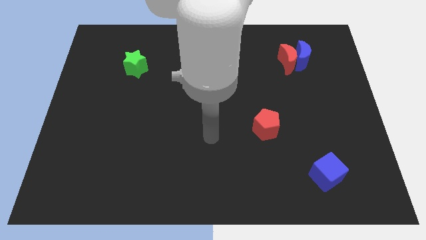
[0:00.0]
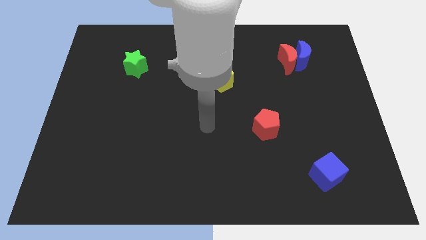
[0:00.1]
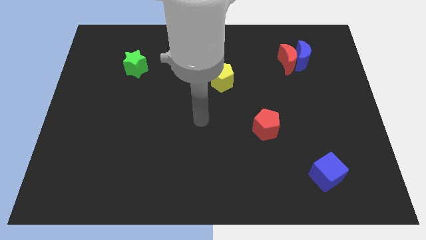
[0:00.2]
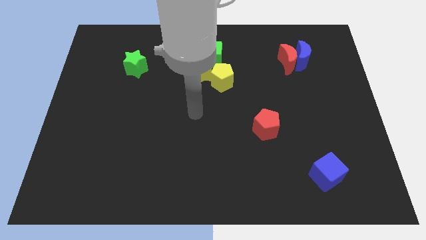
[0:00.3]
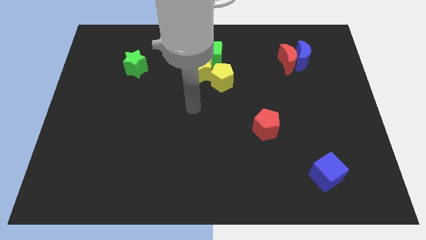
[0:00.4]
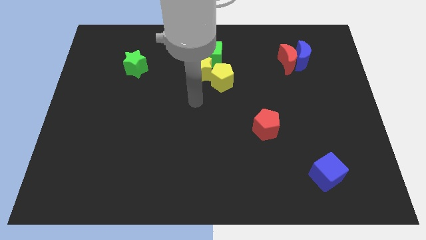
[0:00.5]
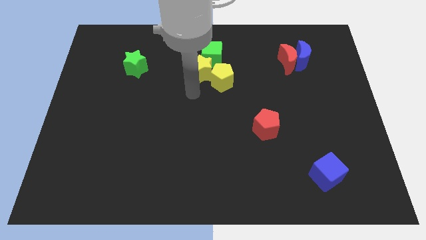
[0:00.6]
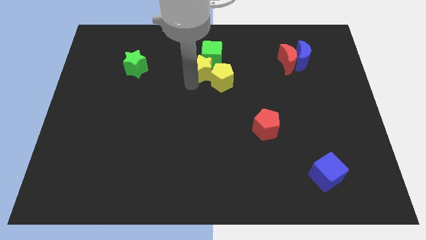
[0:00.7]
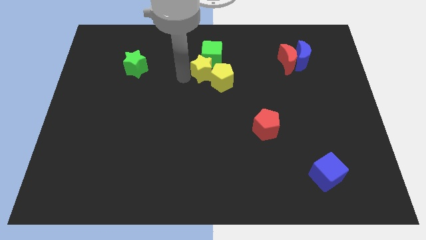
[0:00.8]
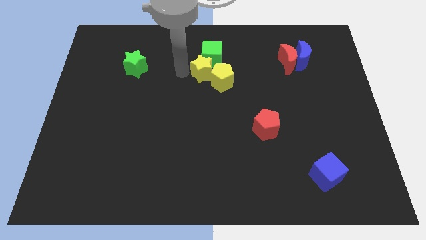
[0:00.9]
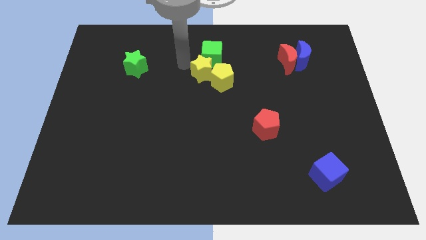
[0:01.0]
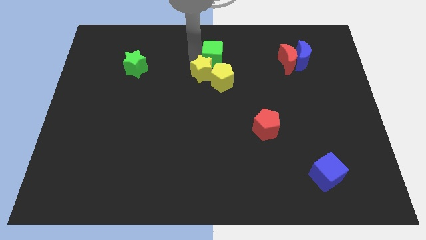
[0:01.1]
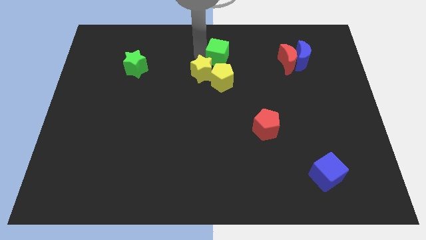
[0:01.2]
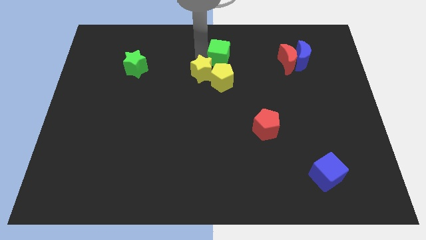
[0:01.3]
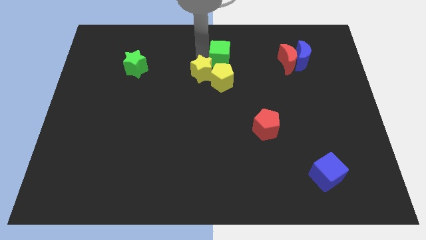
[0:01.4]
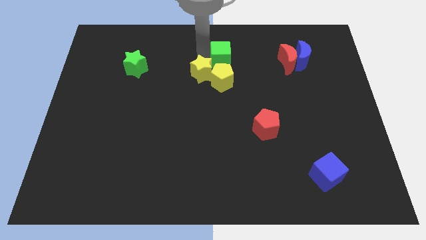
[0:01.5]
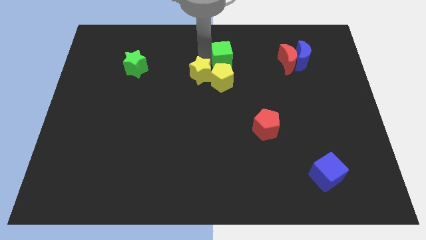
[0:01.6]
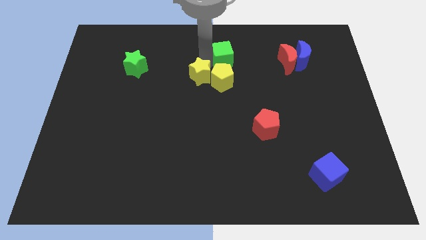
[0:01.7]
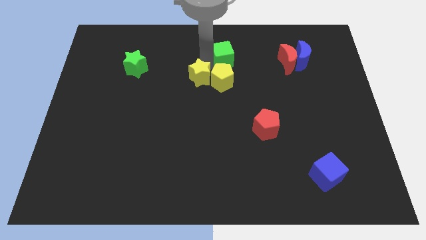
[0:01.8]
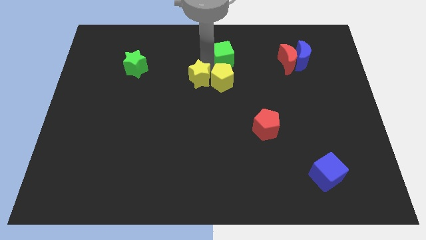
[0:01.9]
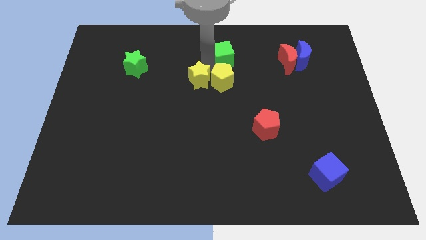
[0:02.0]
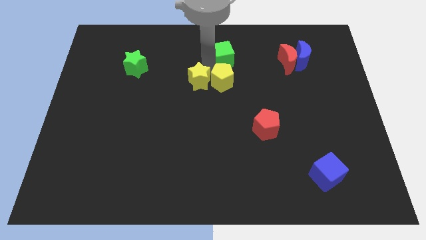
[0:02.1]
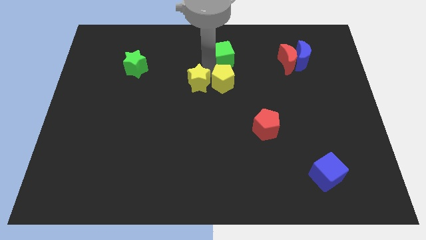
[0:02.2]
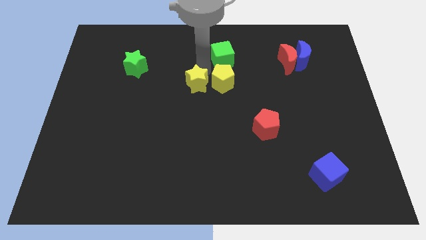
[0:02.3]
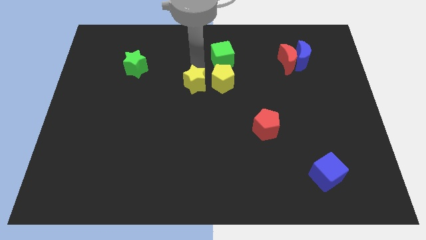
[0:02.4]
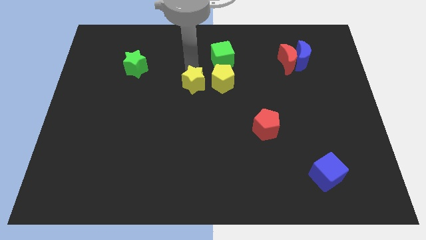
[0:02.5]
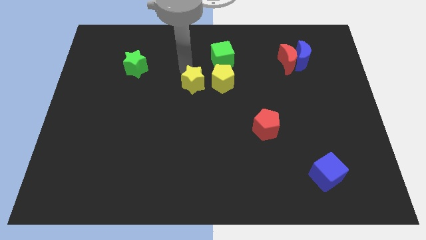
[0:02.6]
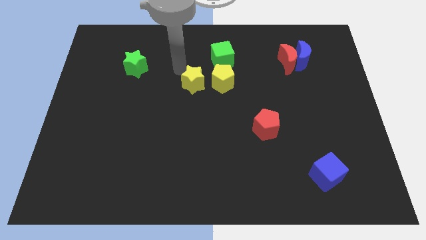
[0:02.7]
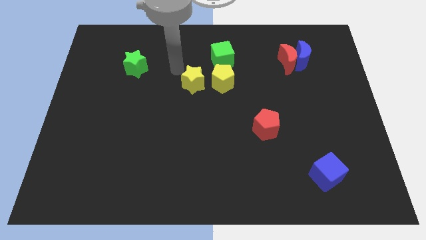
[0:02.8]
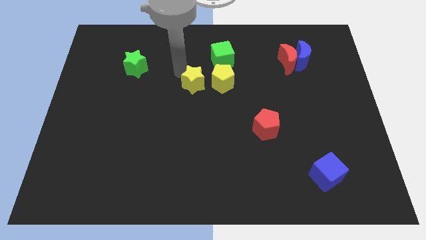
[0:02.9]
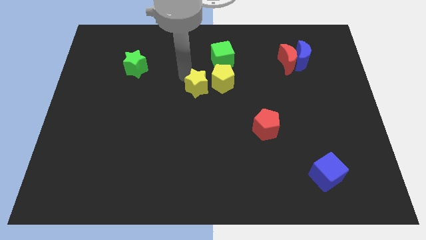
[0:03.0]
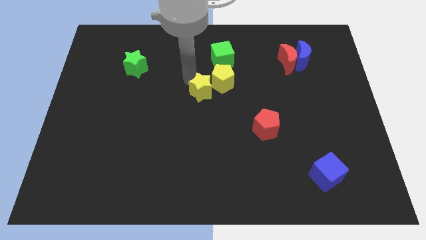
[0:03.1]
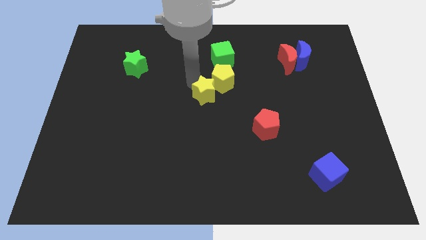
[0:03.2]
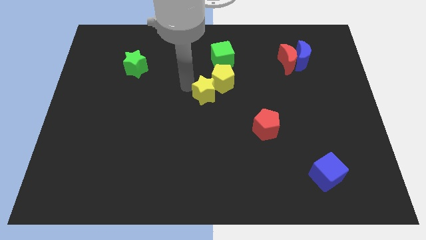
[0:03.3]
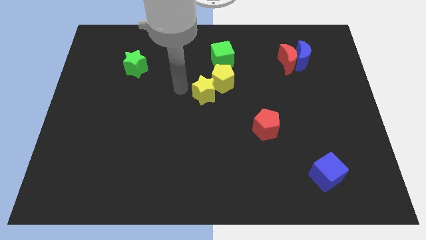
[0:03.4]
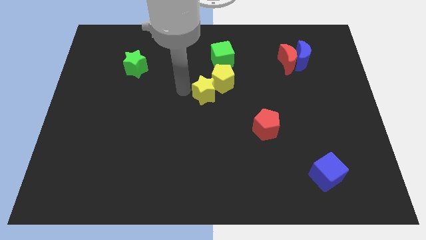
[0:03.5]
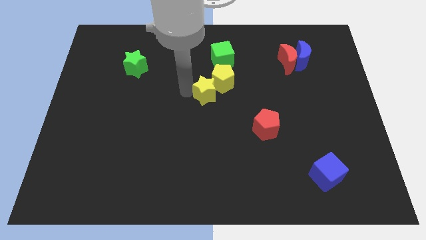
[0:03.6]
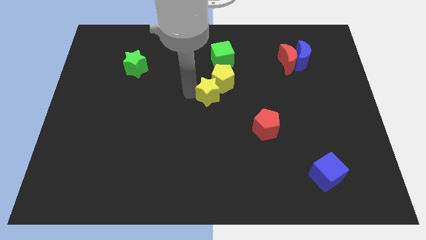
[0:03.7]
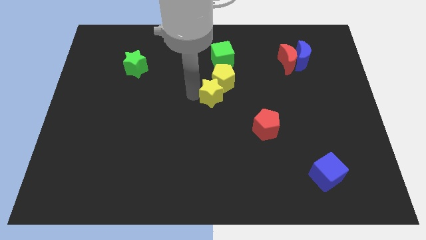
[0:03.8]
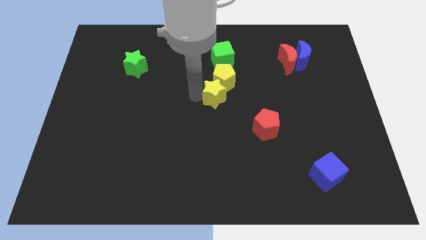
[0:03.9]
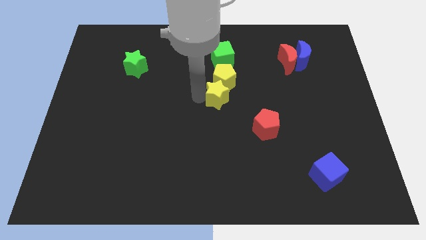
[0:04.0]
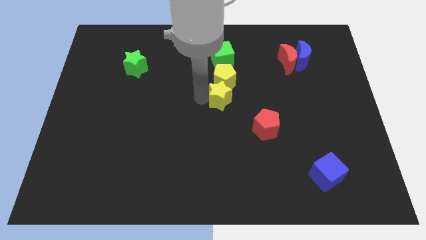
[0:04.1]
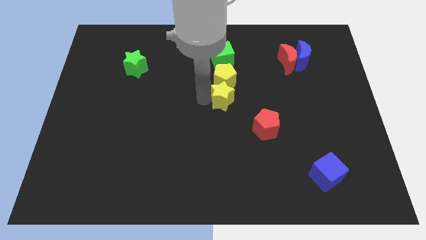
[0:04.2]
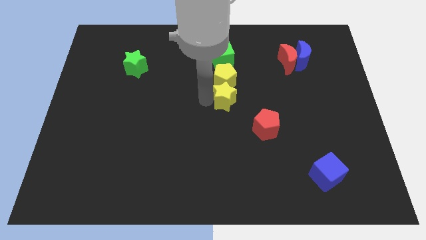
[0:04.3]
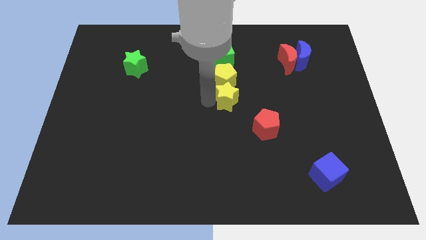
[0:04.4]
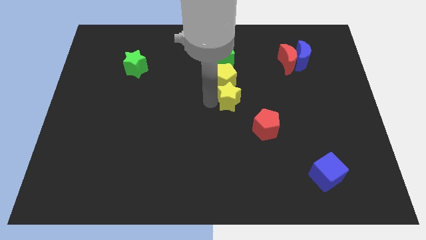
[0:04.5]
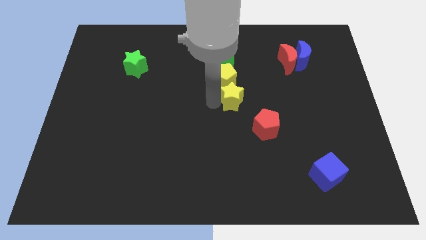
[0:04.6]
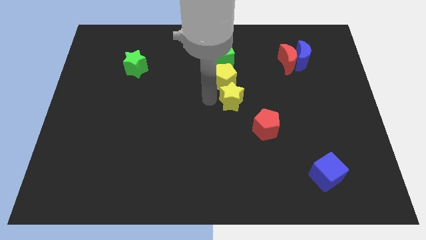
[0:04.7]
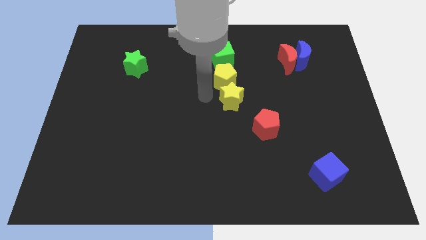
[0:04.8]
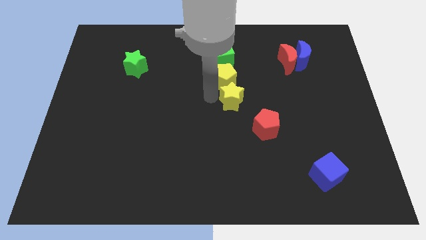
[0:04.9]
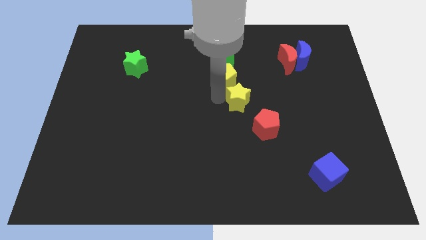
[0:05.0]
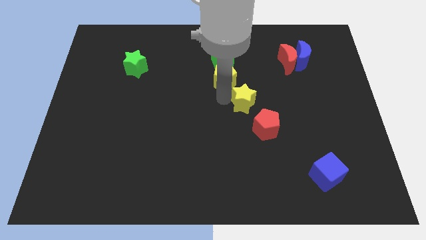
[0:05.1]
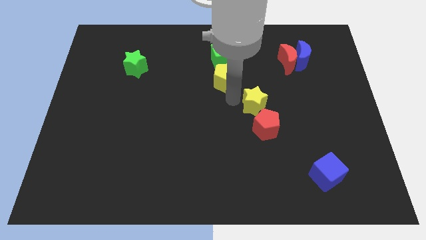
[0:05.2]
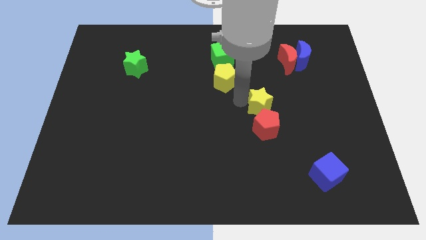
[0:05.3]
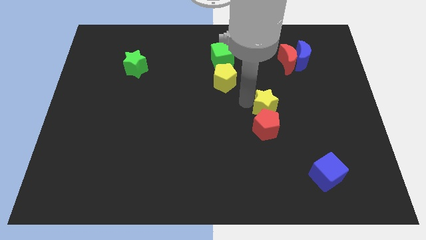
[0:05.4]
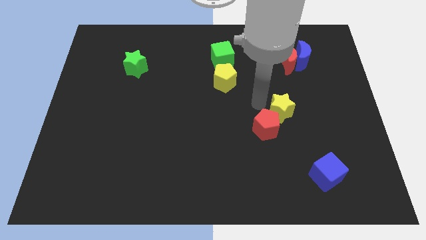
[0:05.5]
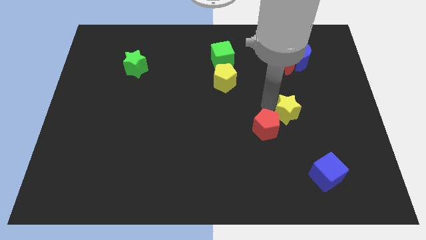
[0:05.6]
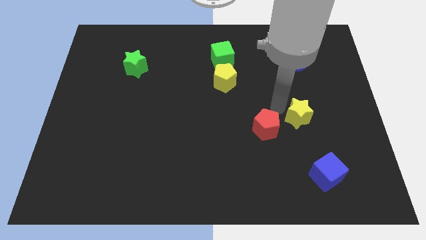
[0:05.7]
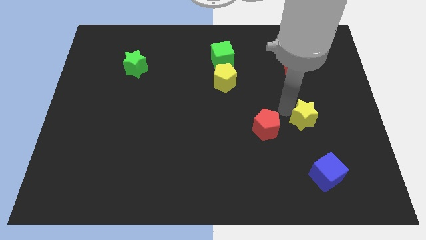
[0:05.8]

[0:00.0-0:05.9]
slide the yellow star above the blue cube

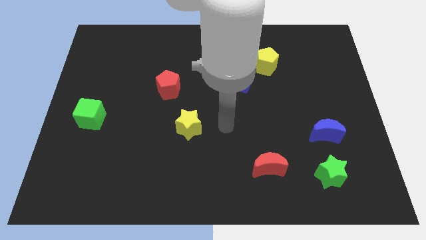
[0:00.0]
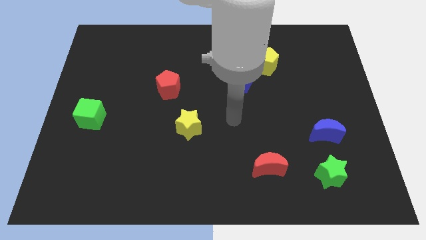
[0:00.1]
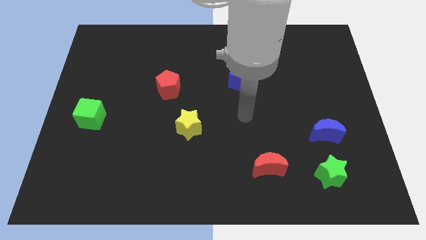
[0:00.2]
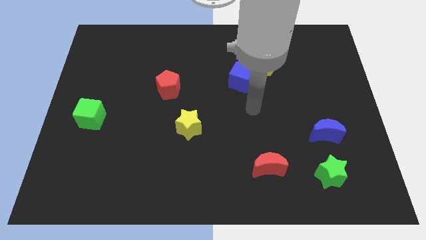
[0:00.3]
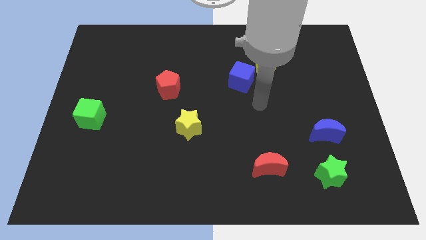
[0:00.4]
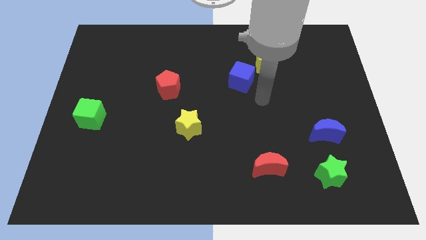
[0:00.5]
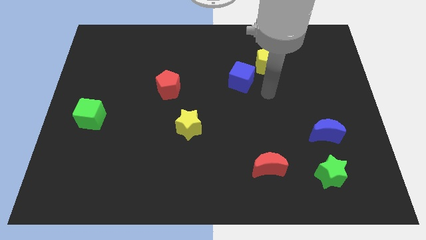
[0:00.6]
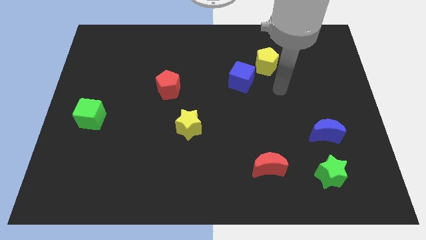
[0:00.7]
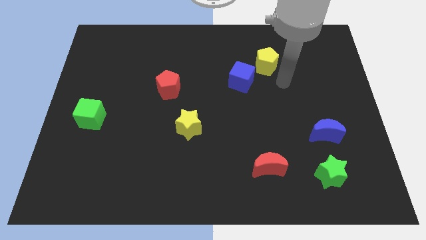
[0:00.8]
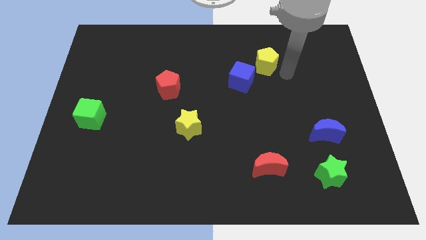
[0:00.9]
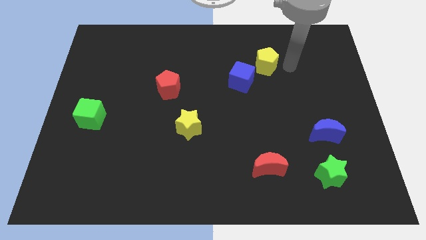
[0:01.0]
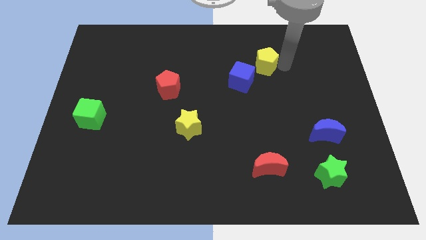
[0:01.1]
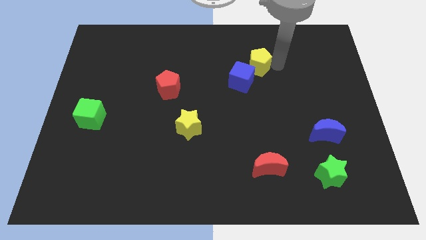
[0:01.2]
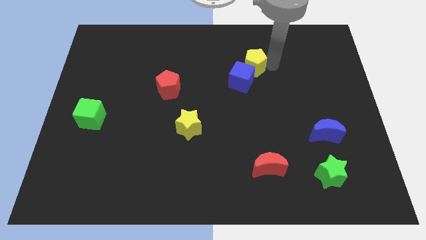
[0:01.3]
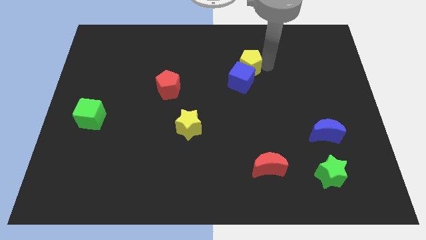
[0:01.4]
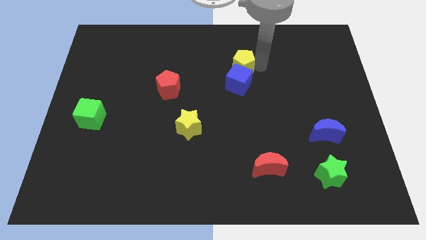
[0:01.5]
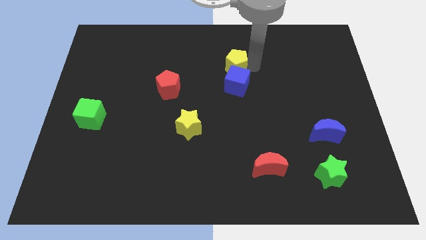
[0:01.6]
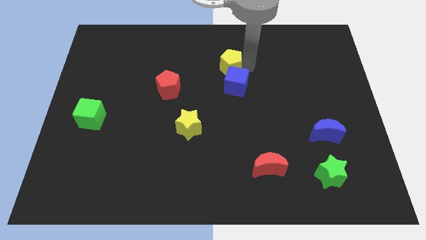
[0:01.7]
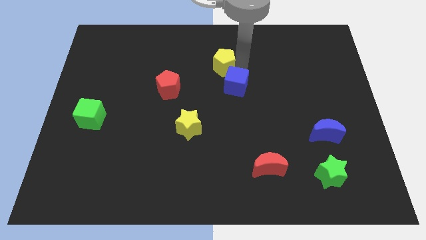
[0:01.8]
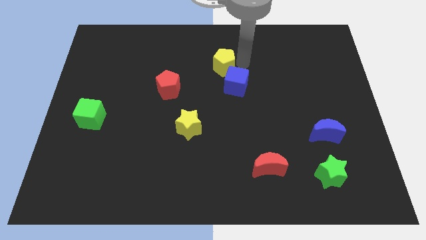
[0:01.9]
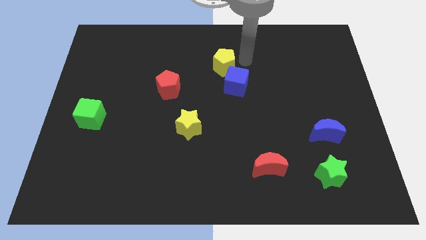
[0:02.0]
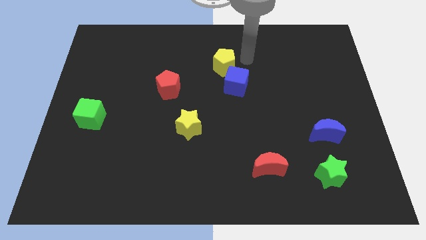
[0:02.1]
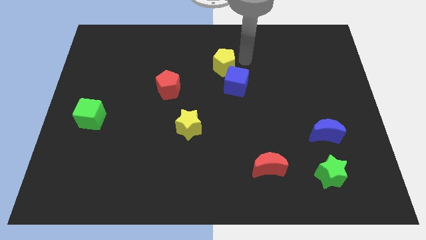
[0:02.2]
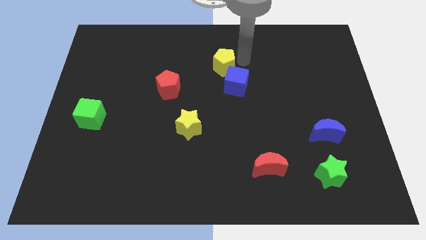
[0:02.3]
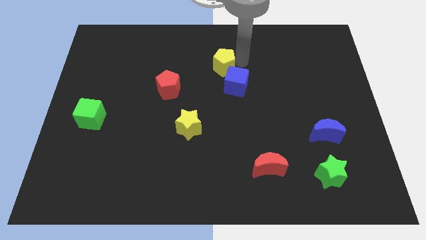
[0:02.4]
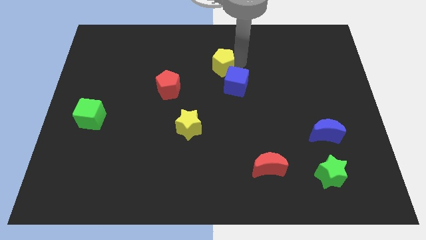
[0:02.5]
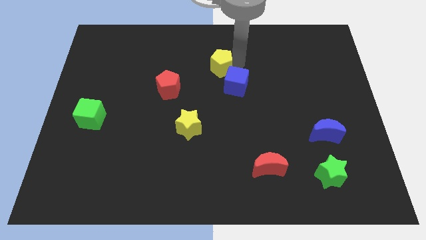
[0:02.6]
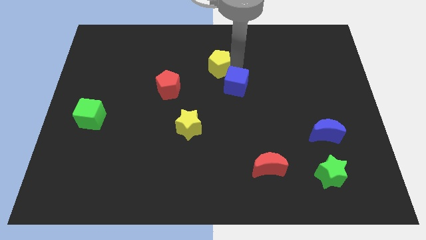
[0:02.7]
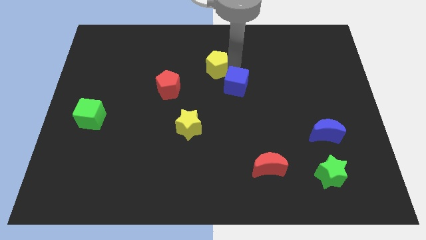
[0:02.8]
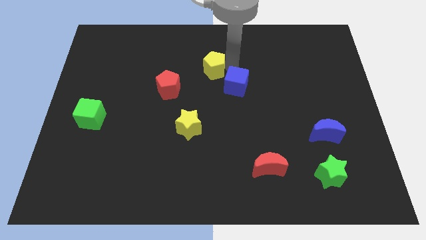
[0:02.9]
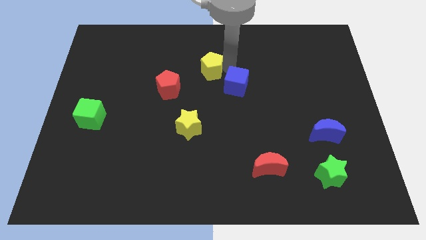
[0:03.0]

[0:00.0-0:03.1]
slide the yellow pentagon to the top right of the red pentagon
